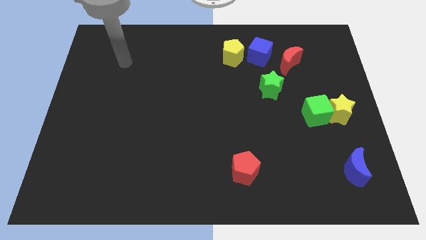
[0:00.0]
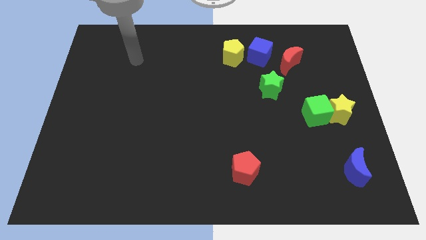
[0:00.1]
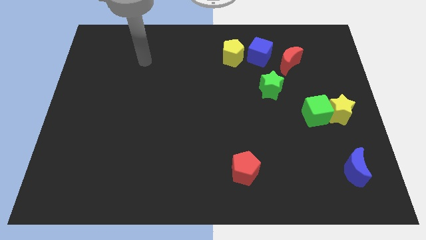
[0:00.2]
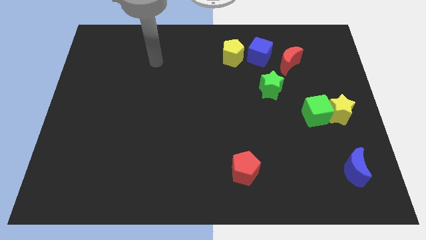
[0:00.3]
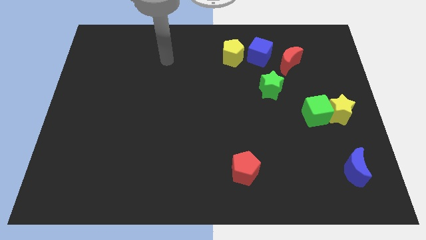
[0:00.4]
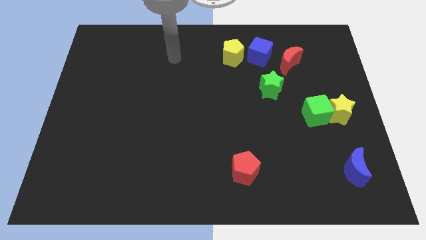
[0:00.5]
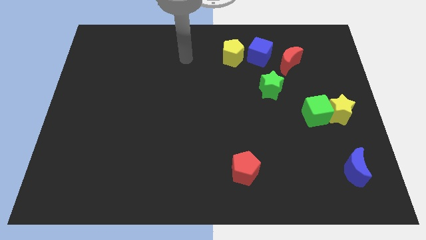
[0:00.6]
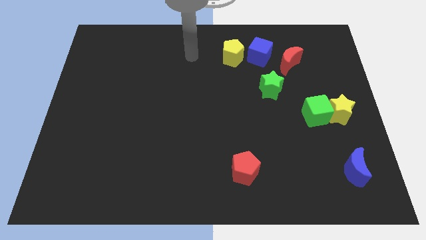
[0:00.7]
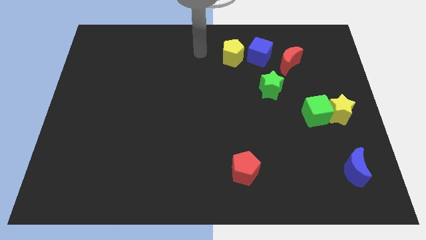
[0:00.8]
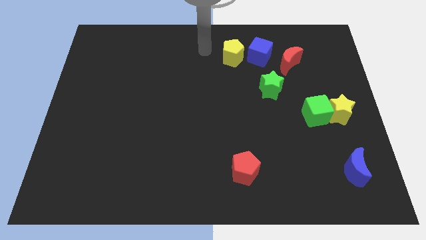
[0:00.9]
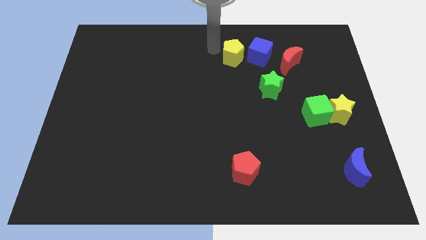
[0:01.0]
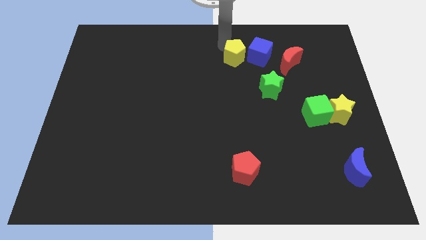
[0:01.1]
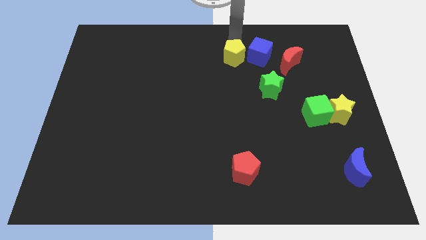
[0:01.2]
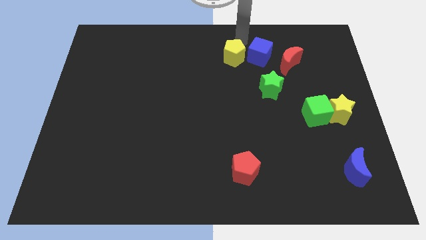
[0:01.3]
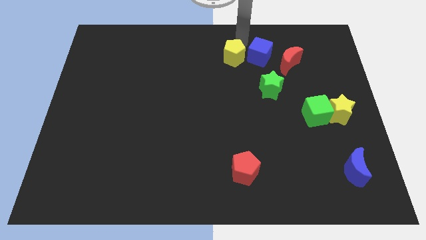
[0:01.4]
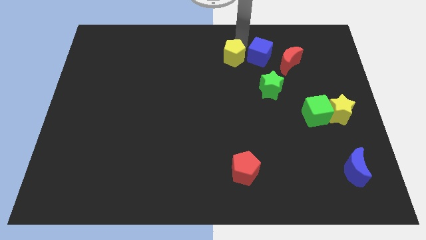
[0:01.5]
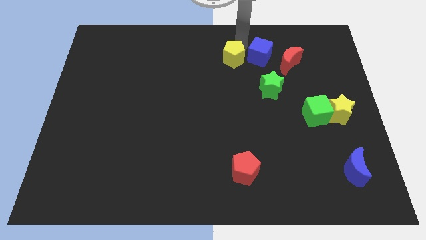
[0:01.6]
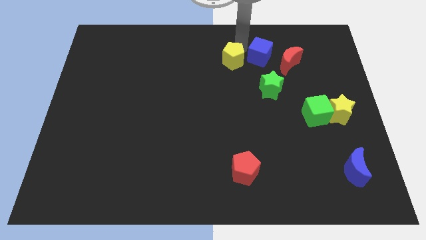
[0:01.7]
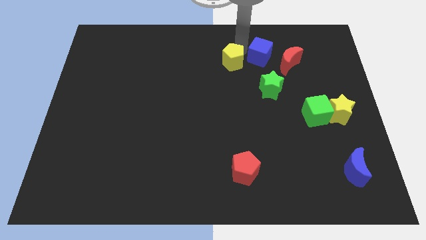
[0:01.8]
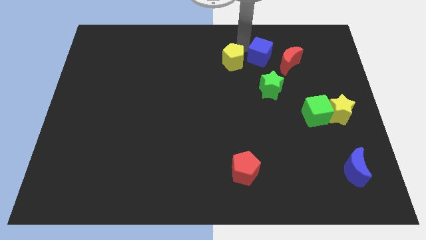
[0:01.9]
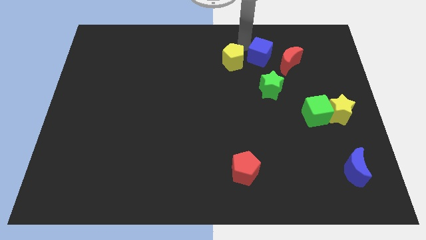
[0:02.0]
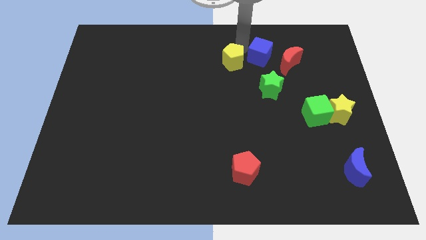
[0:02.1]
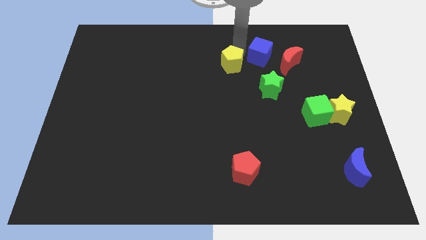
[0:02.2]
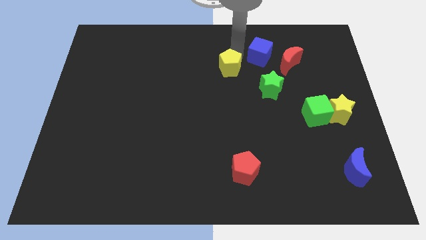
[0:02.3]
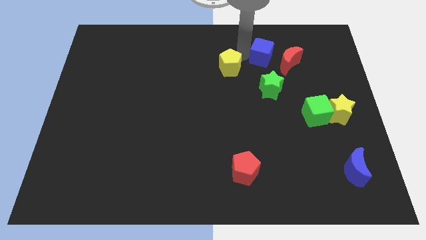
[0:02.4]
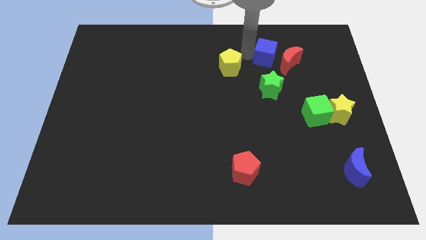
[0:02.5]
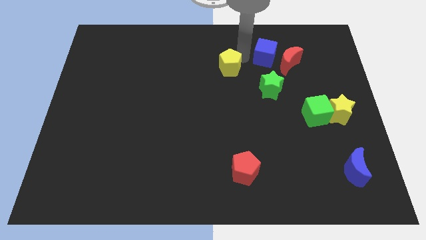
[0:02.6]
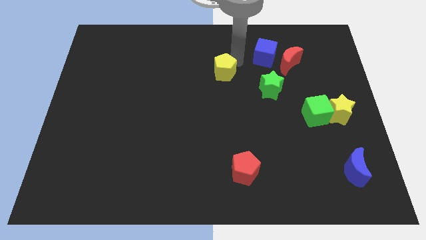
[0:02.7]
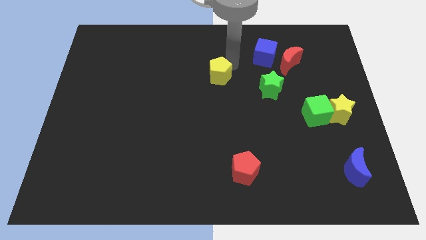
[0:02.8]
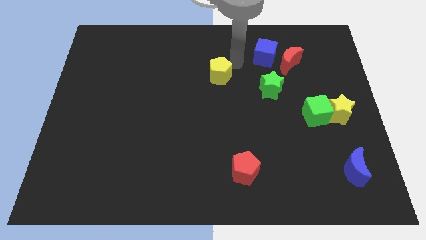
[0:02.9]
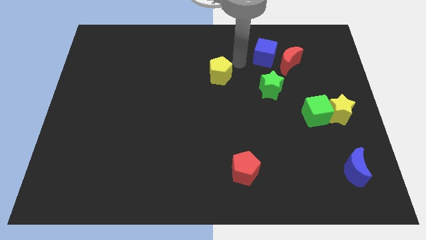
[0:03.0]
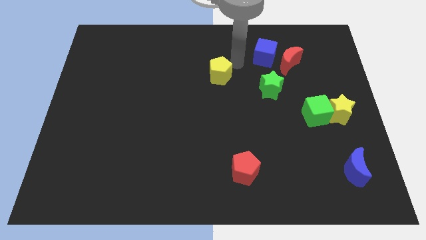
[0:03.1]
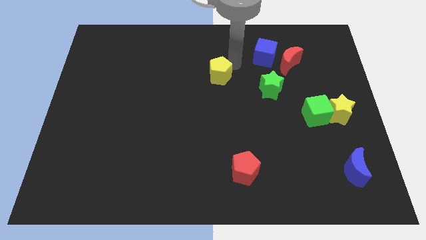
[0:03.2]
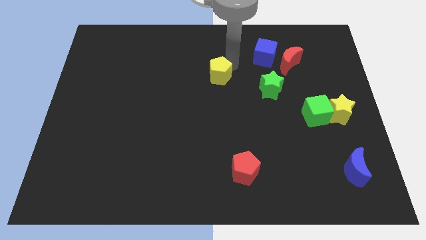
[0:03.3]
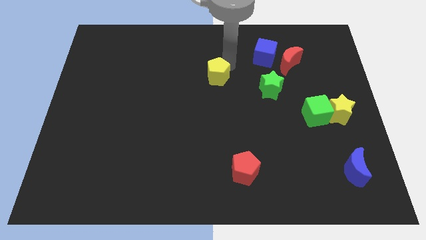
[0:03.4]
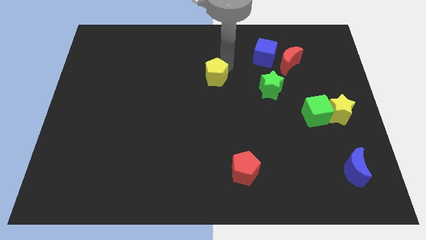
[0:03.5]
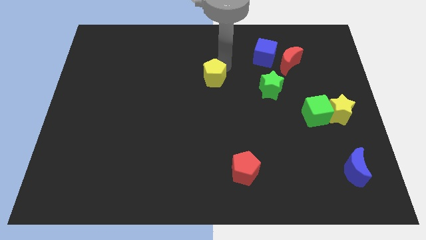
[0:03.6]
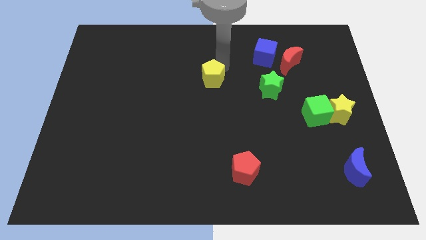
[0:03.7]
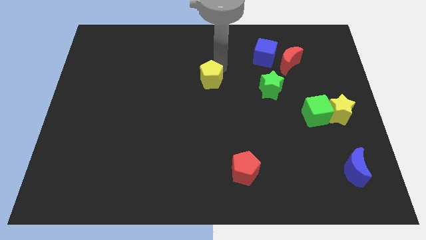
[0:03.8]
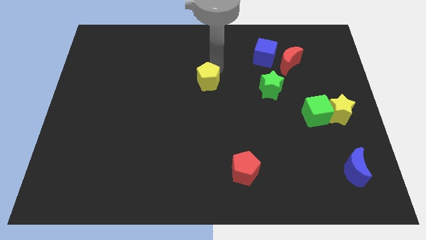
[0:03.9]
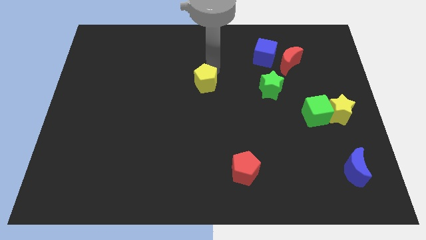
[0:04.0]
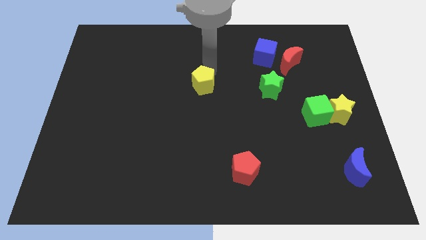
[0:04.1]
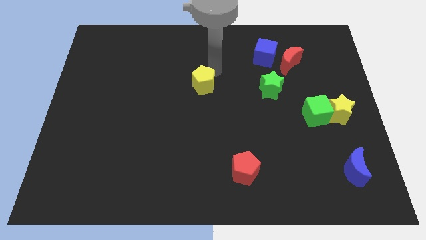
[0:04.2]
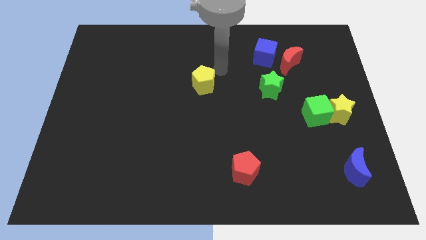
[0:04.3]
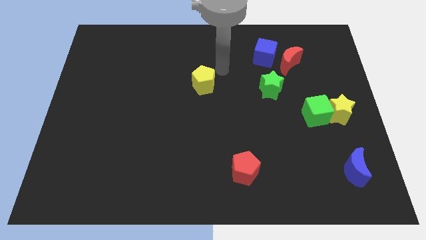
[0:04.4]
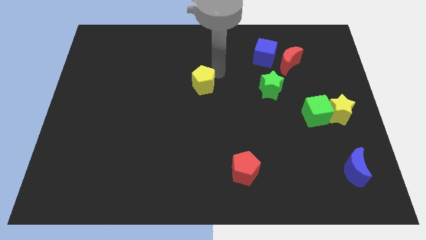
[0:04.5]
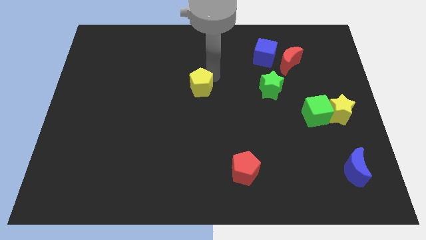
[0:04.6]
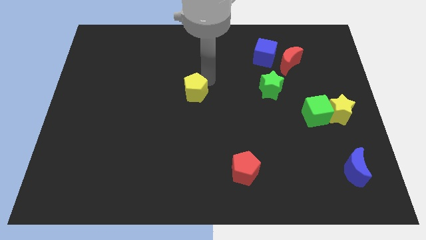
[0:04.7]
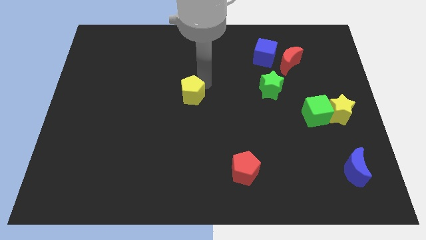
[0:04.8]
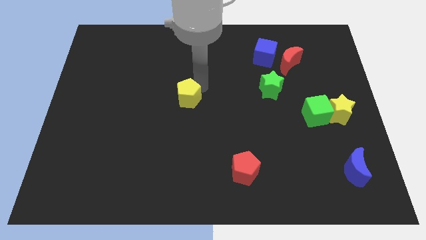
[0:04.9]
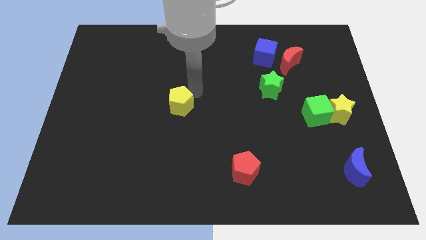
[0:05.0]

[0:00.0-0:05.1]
move the yellow pentagon down and left diagonally

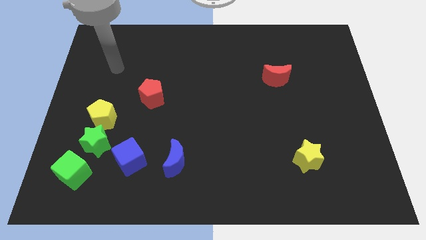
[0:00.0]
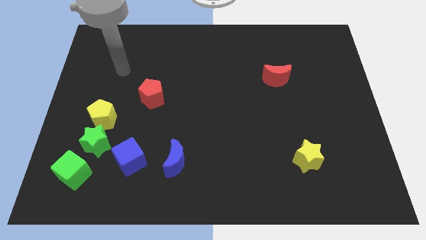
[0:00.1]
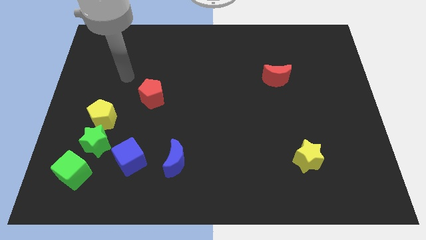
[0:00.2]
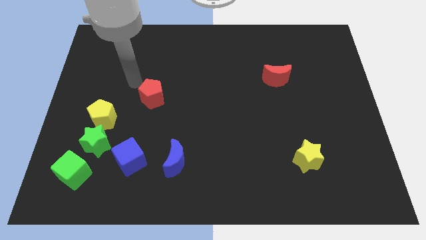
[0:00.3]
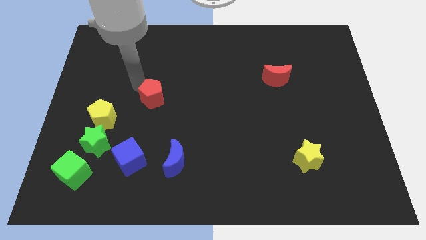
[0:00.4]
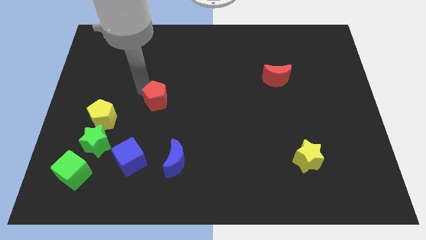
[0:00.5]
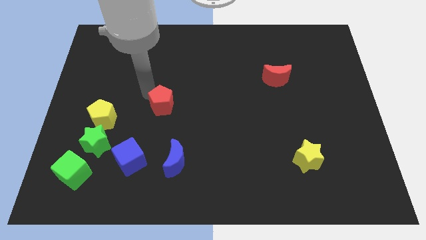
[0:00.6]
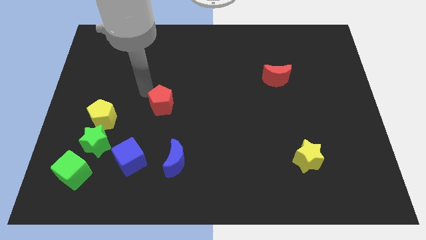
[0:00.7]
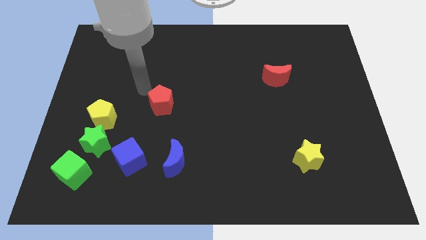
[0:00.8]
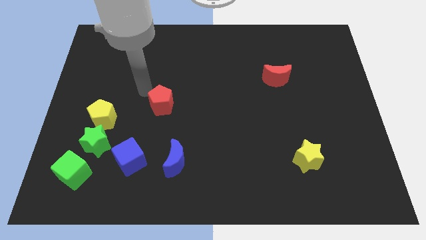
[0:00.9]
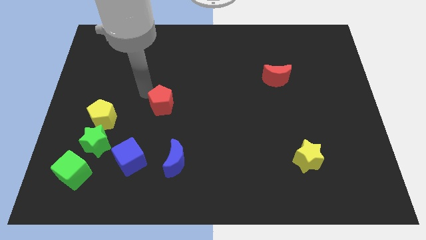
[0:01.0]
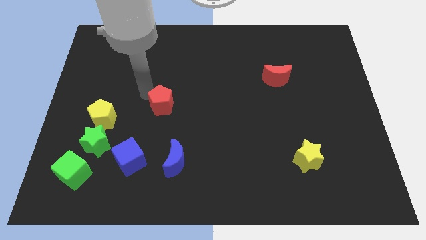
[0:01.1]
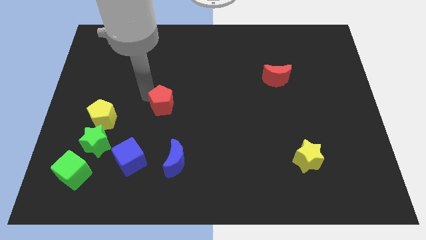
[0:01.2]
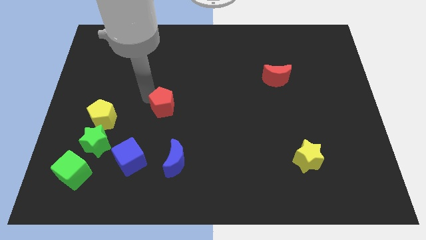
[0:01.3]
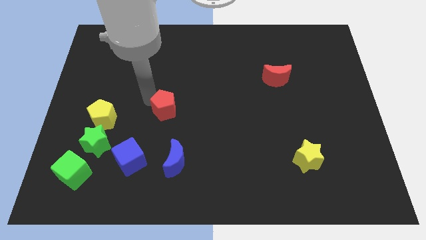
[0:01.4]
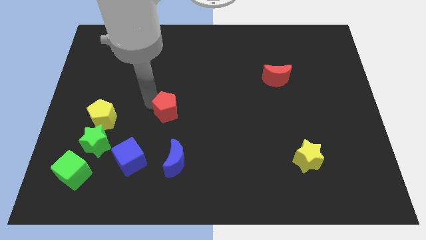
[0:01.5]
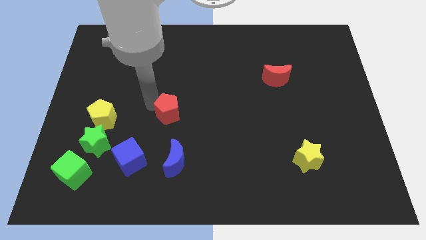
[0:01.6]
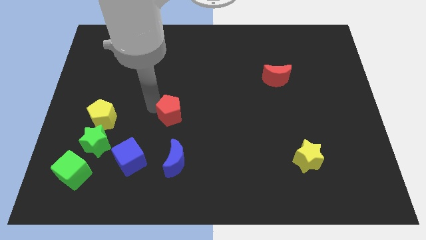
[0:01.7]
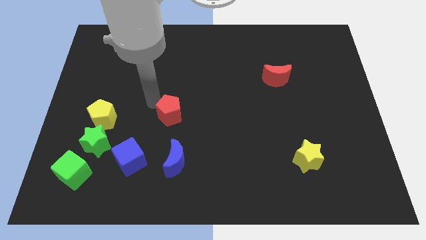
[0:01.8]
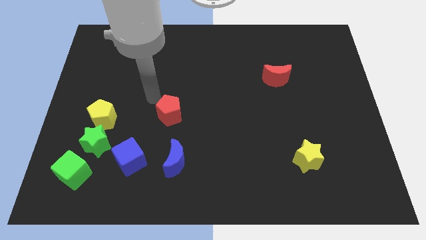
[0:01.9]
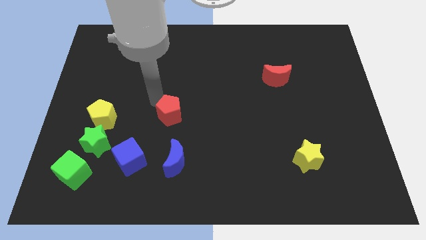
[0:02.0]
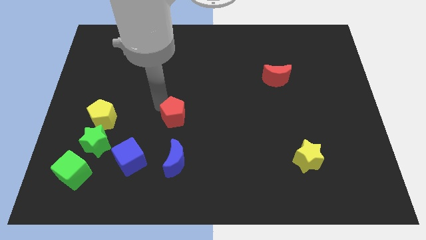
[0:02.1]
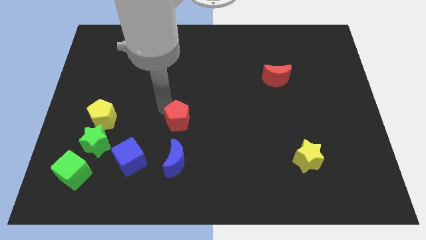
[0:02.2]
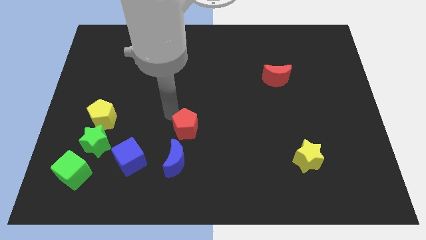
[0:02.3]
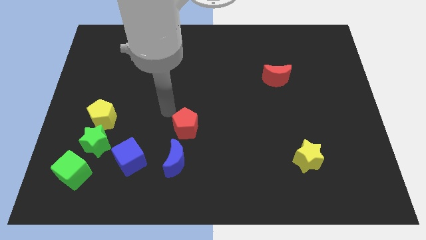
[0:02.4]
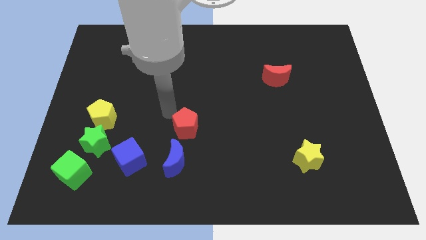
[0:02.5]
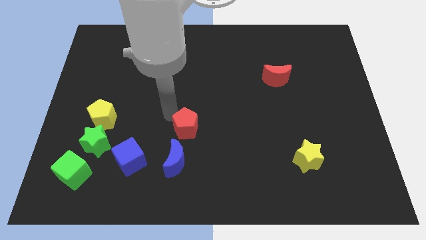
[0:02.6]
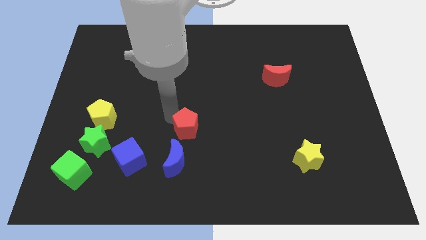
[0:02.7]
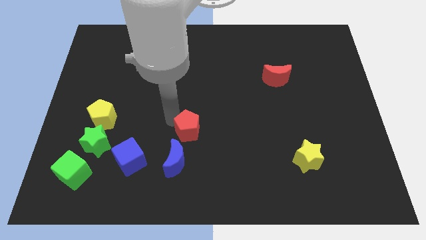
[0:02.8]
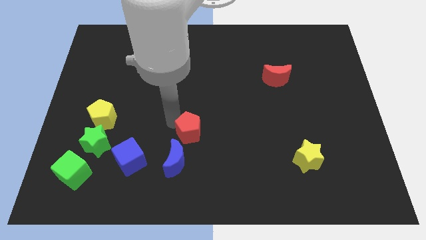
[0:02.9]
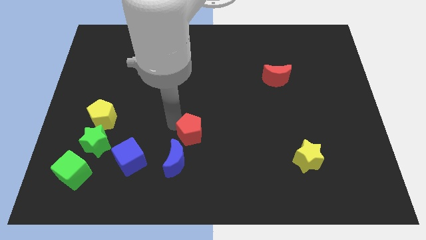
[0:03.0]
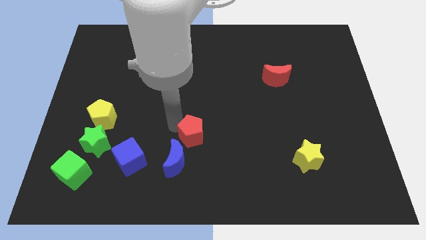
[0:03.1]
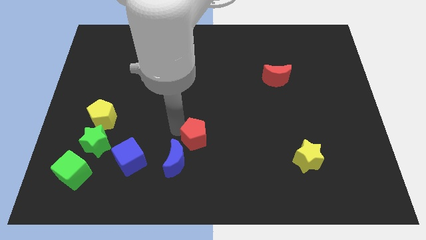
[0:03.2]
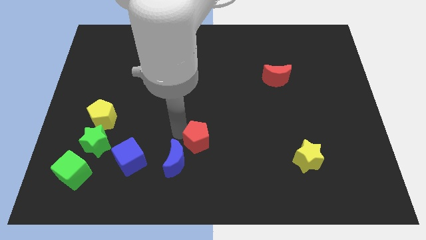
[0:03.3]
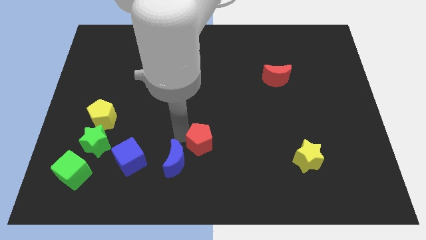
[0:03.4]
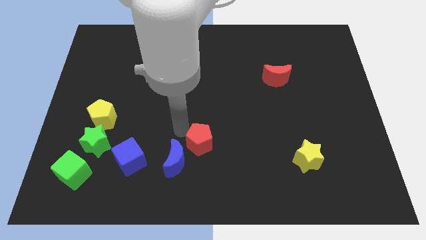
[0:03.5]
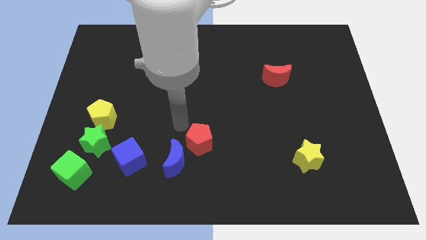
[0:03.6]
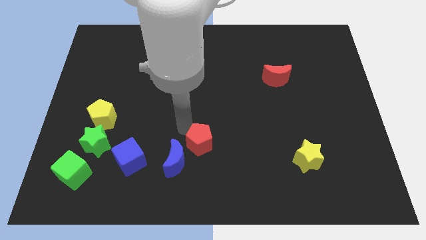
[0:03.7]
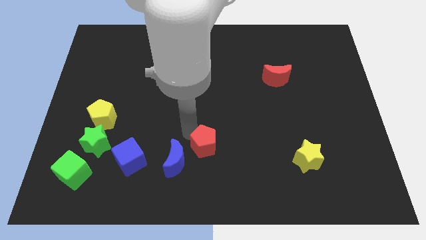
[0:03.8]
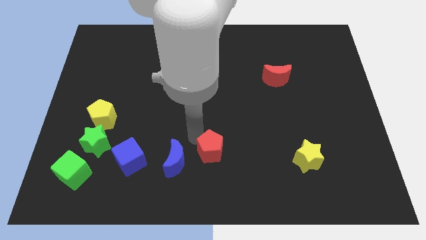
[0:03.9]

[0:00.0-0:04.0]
slide the red pentagon diagonally down and to the right
